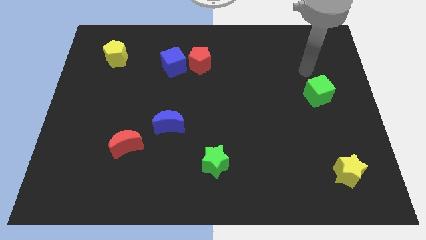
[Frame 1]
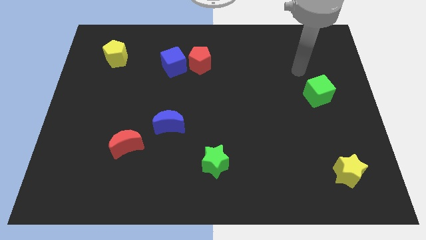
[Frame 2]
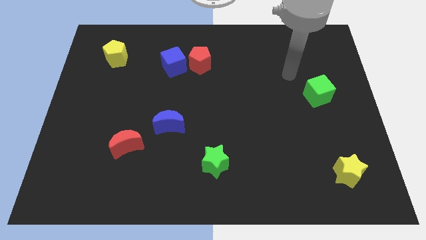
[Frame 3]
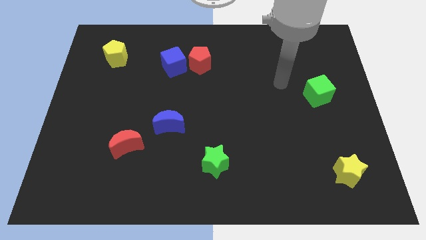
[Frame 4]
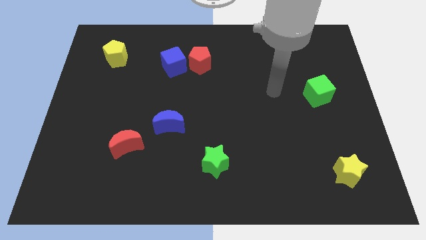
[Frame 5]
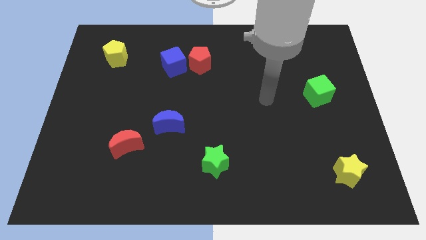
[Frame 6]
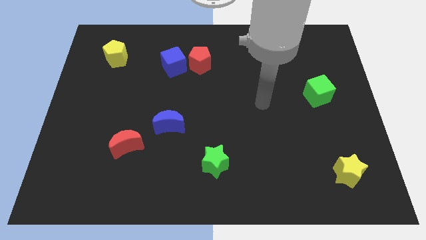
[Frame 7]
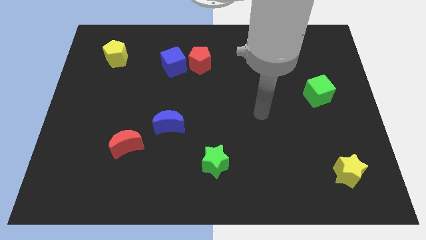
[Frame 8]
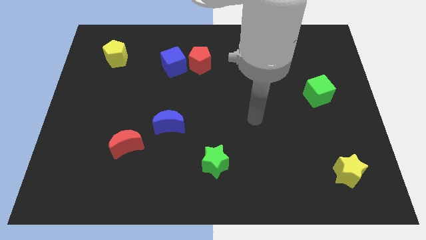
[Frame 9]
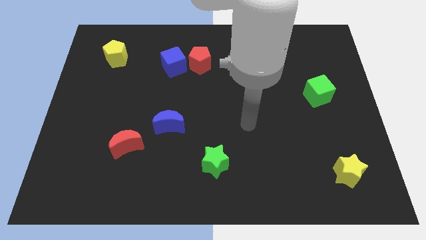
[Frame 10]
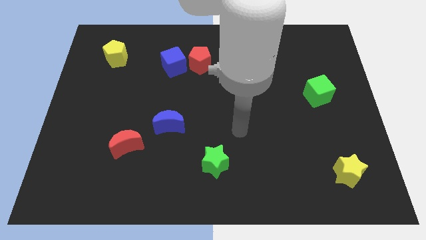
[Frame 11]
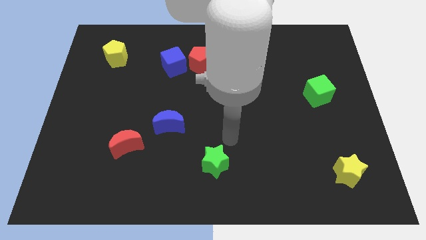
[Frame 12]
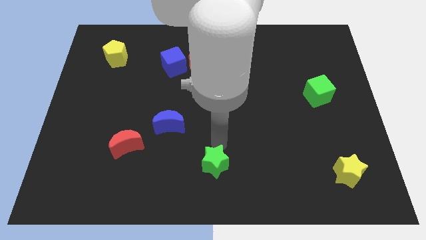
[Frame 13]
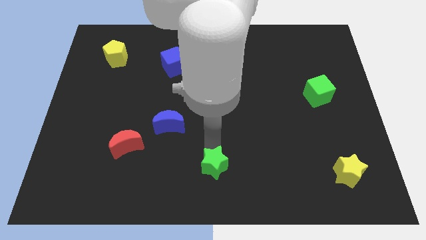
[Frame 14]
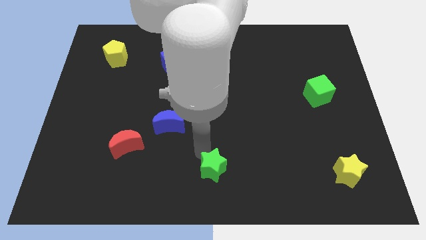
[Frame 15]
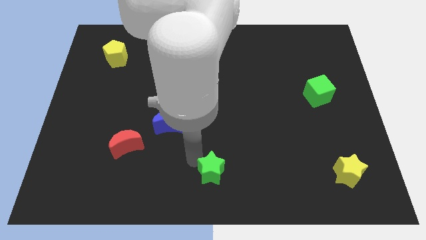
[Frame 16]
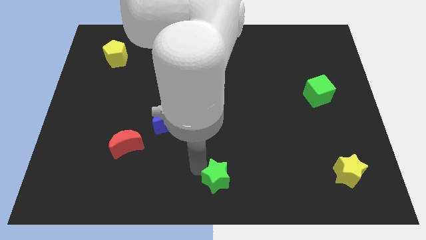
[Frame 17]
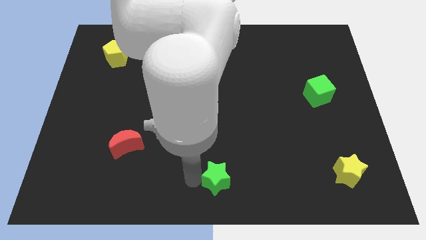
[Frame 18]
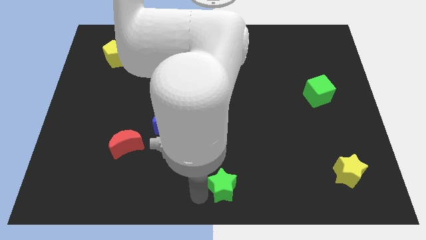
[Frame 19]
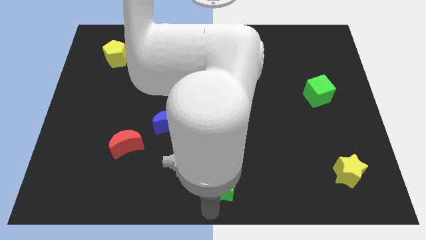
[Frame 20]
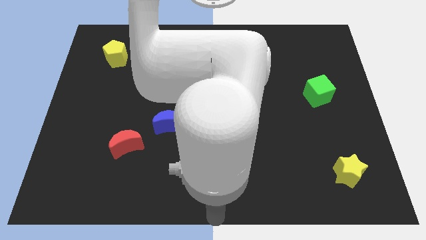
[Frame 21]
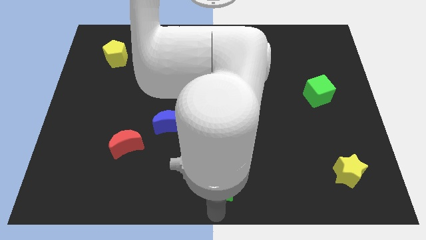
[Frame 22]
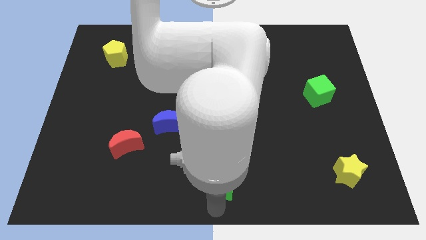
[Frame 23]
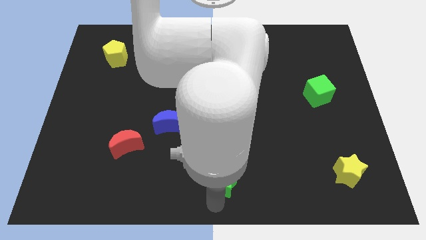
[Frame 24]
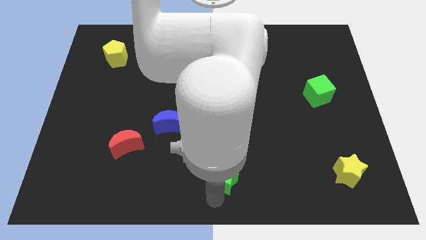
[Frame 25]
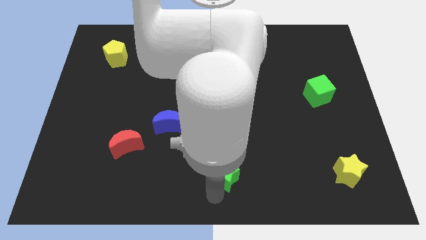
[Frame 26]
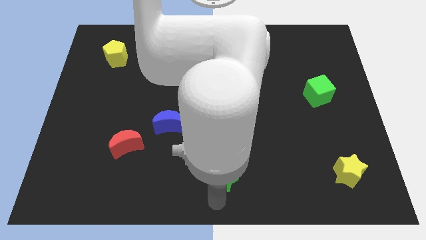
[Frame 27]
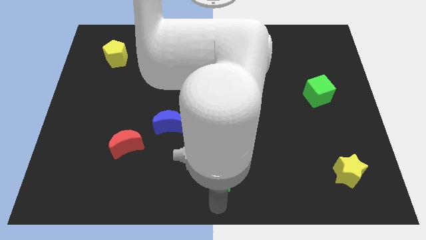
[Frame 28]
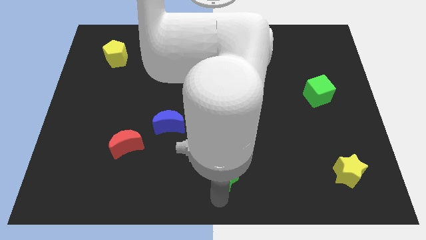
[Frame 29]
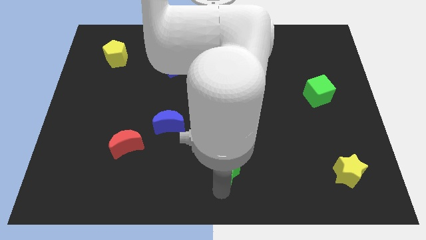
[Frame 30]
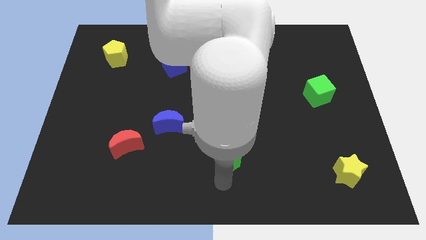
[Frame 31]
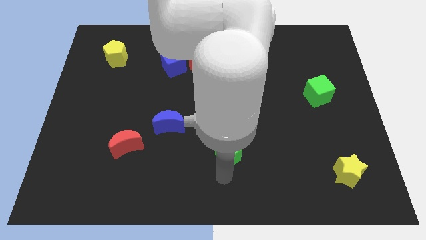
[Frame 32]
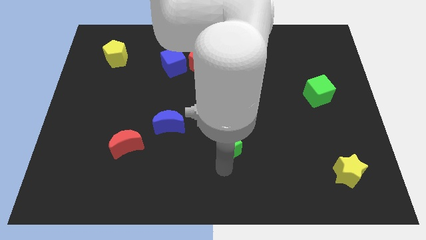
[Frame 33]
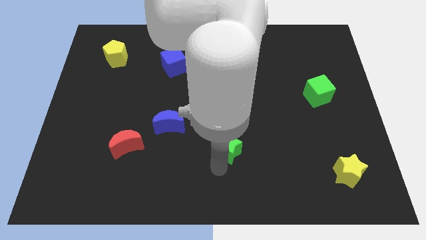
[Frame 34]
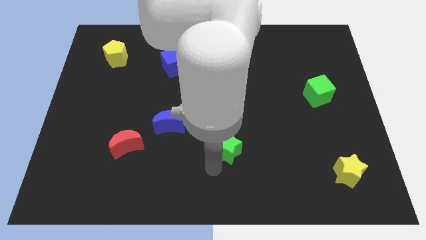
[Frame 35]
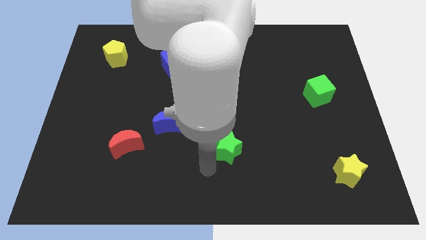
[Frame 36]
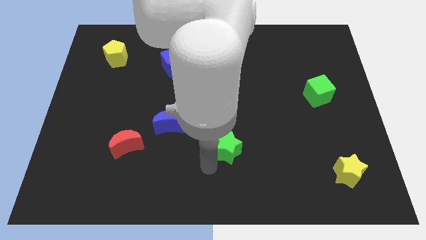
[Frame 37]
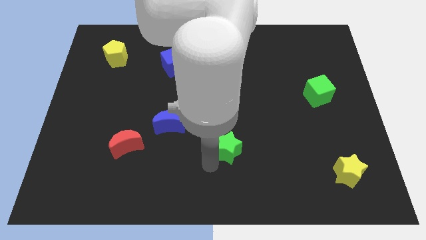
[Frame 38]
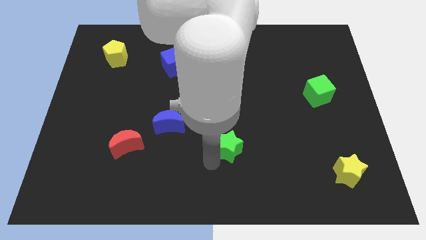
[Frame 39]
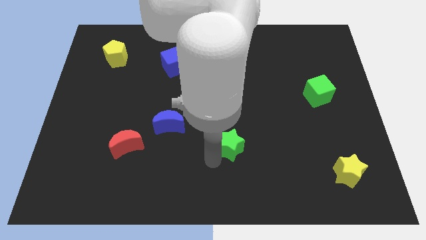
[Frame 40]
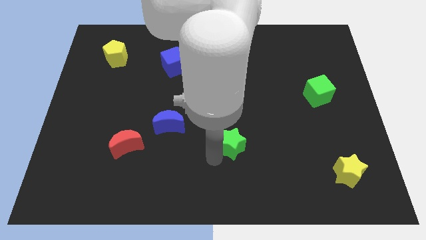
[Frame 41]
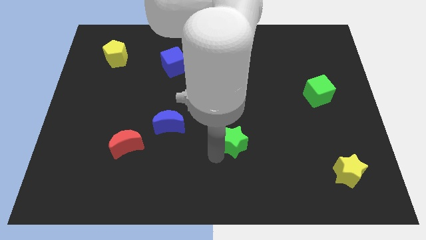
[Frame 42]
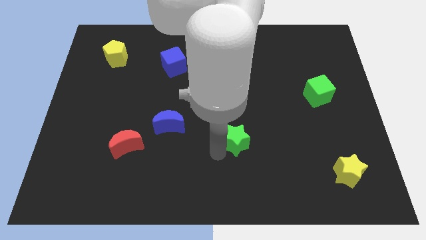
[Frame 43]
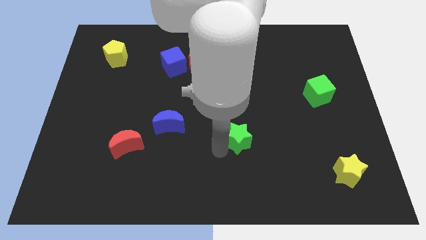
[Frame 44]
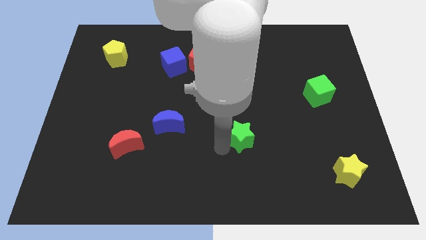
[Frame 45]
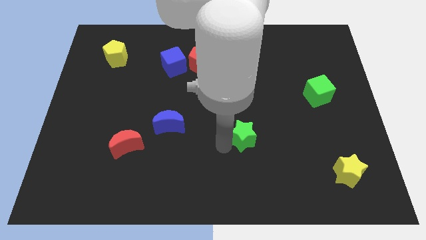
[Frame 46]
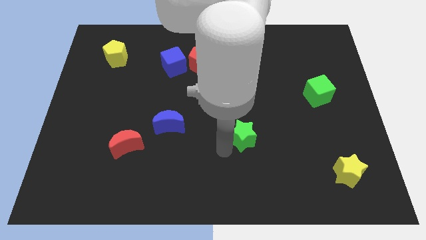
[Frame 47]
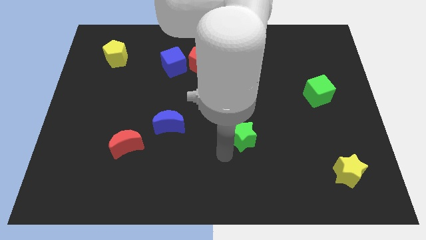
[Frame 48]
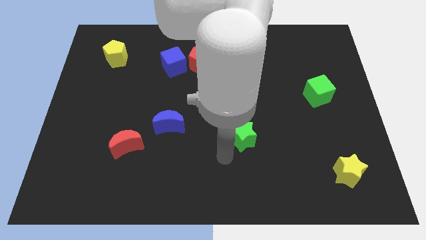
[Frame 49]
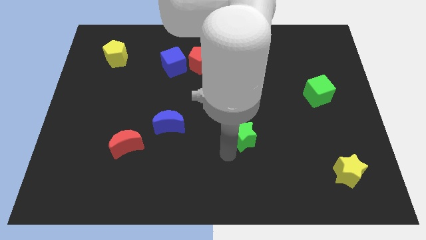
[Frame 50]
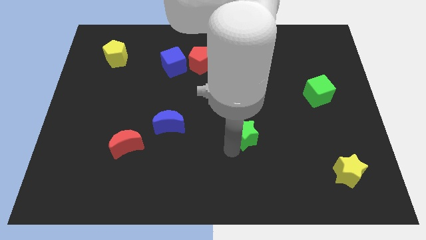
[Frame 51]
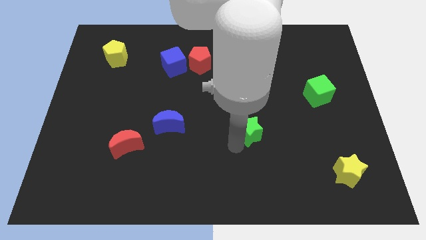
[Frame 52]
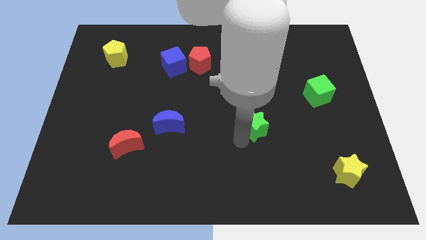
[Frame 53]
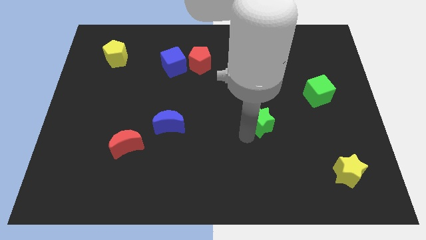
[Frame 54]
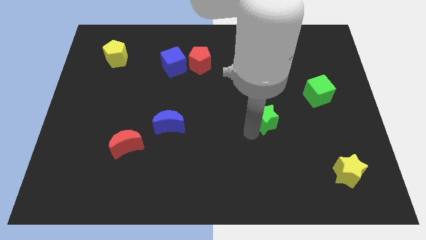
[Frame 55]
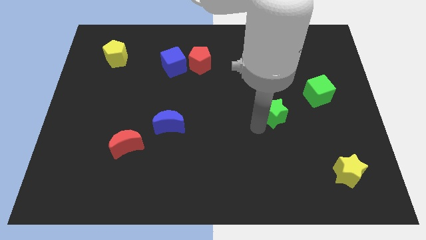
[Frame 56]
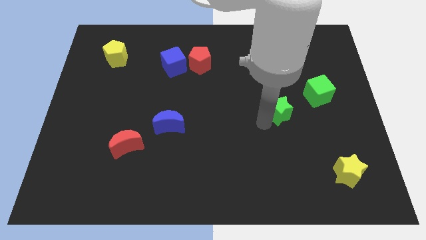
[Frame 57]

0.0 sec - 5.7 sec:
move the green star up and right

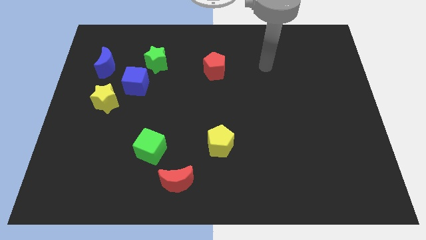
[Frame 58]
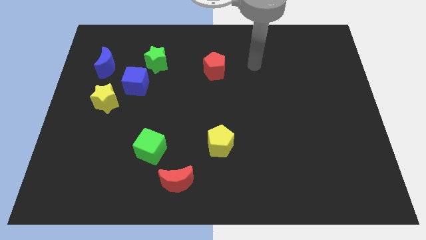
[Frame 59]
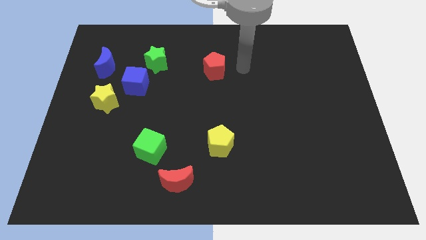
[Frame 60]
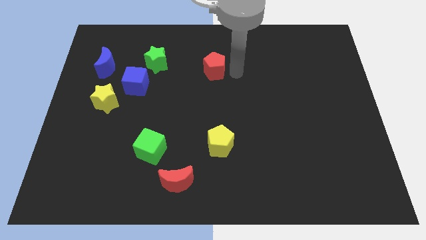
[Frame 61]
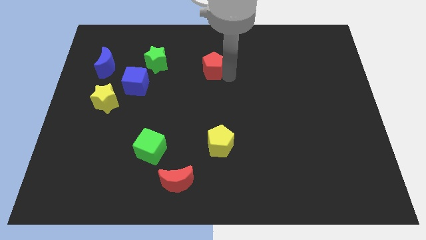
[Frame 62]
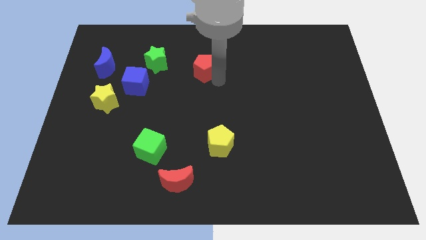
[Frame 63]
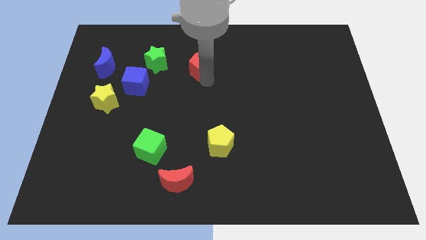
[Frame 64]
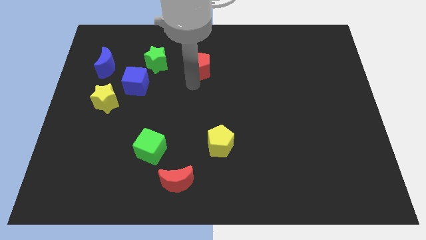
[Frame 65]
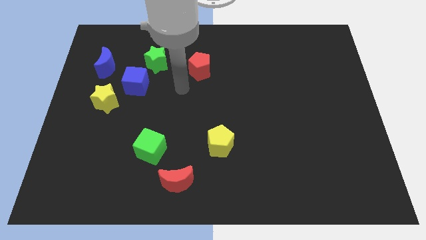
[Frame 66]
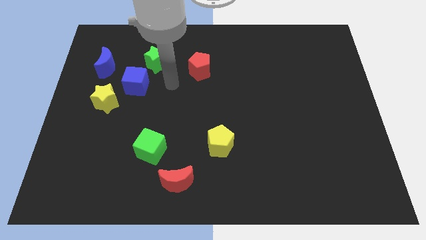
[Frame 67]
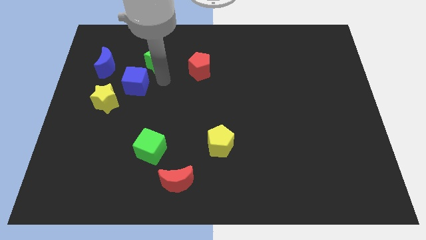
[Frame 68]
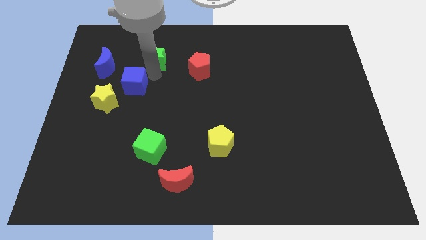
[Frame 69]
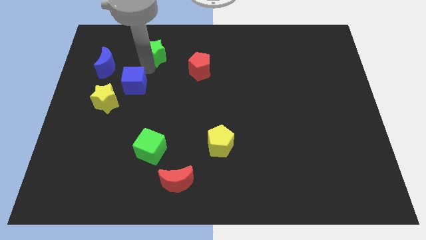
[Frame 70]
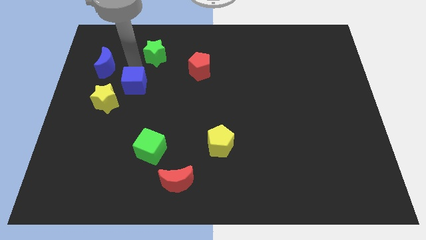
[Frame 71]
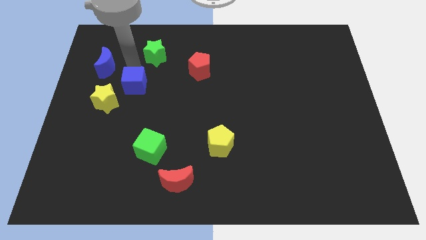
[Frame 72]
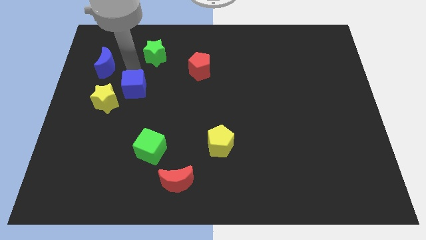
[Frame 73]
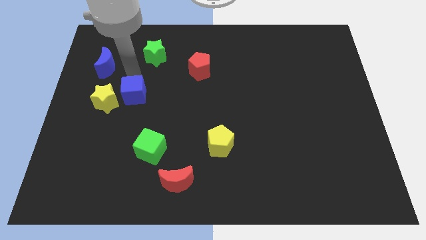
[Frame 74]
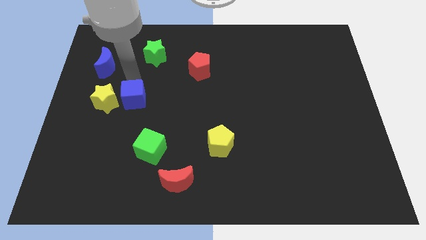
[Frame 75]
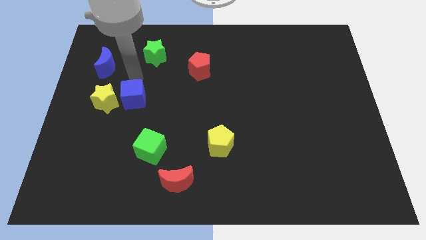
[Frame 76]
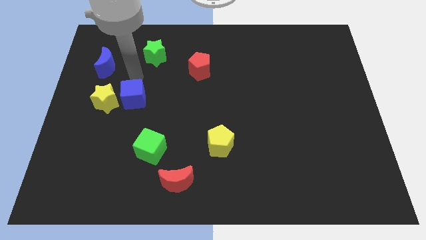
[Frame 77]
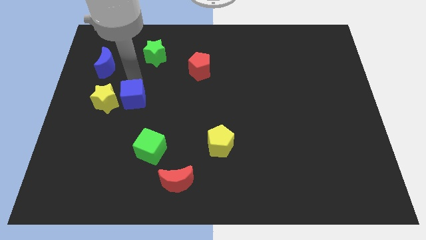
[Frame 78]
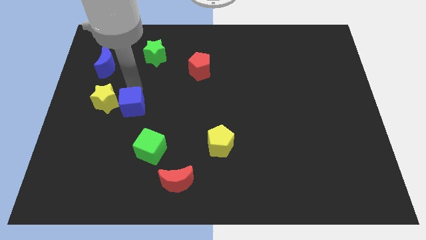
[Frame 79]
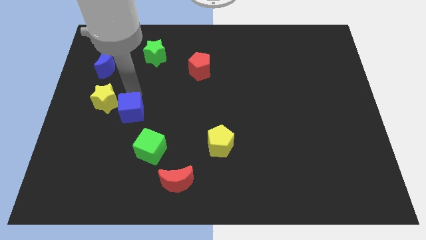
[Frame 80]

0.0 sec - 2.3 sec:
slide the blue cube down a little bit
